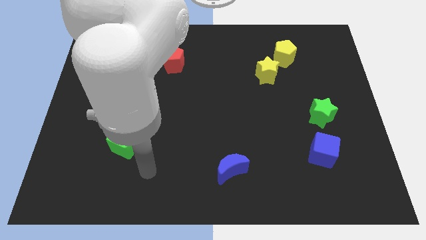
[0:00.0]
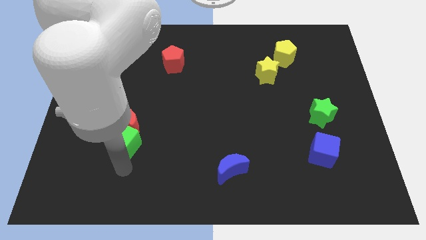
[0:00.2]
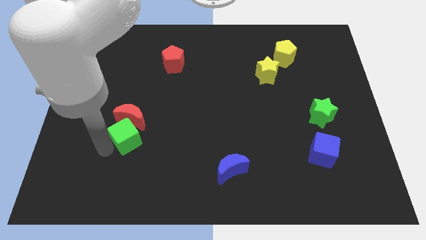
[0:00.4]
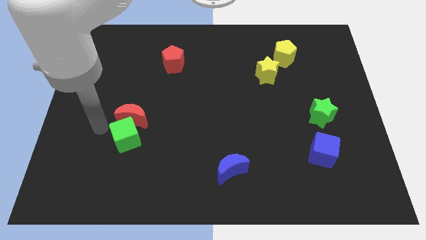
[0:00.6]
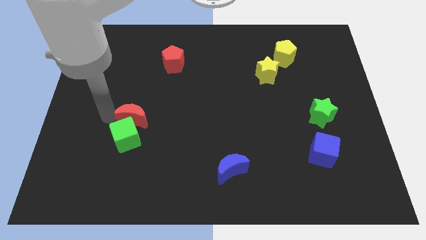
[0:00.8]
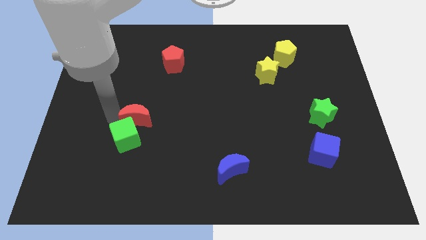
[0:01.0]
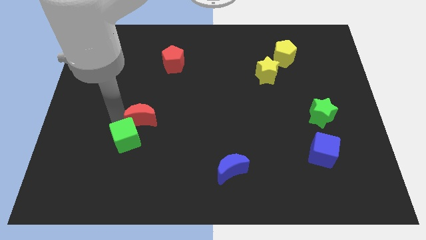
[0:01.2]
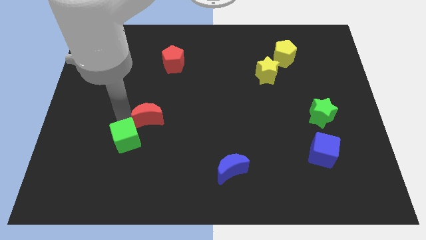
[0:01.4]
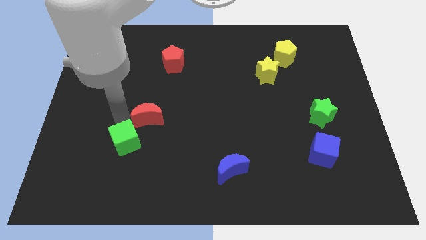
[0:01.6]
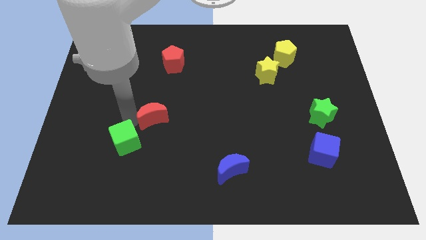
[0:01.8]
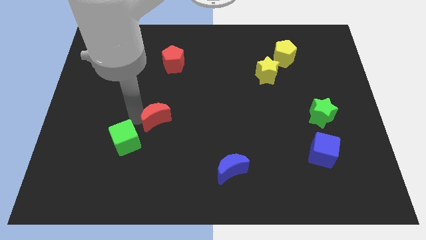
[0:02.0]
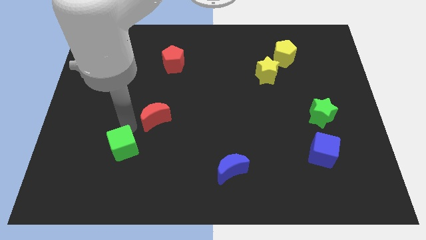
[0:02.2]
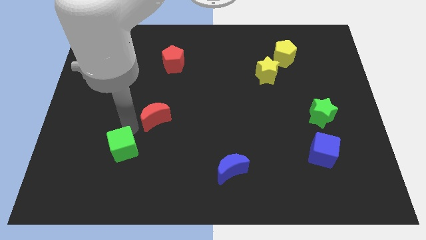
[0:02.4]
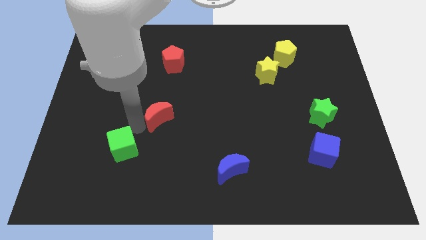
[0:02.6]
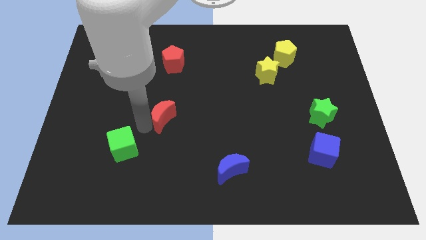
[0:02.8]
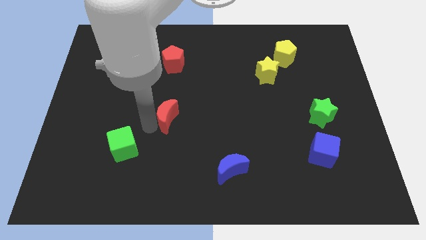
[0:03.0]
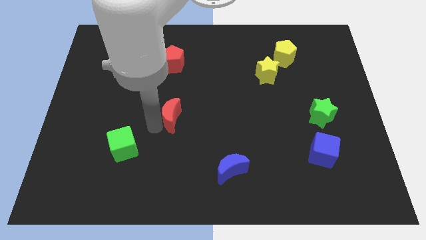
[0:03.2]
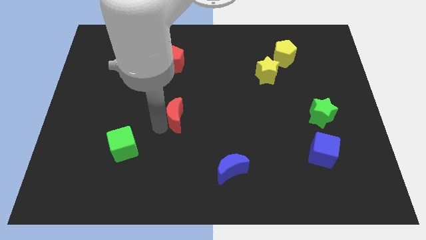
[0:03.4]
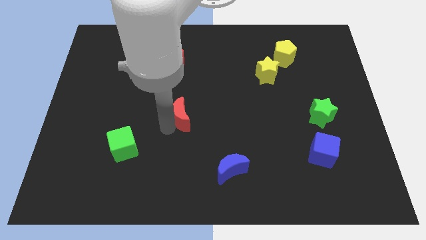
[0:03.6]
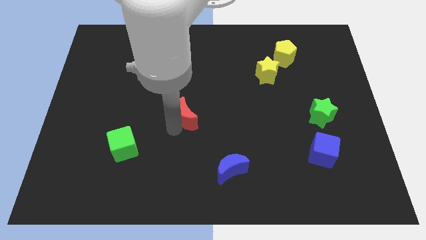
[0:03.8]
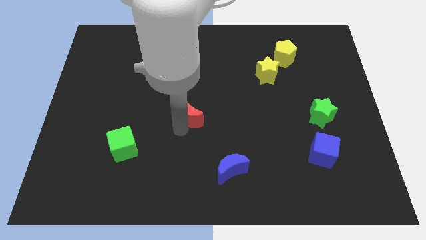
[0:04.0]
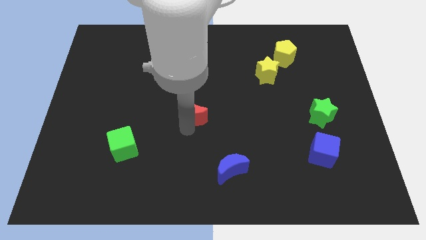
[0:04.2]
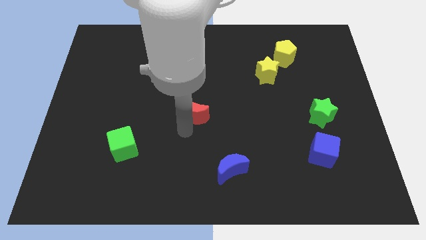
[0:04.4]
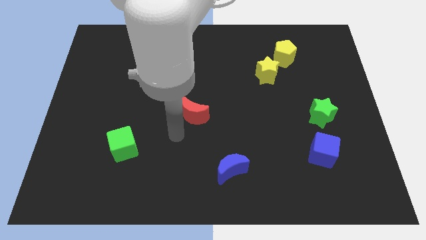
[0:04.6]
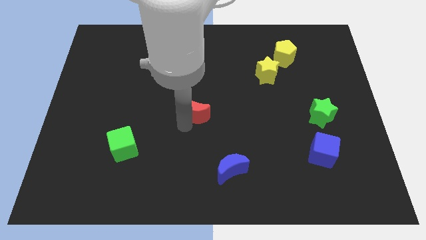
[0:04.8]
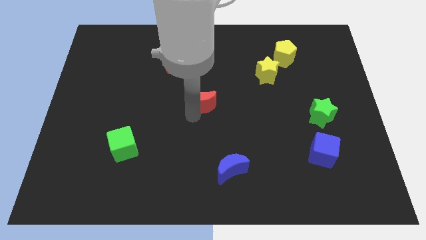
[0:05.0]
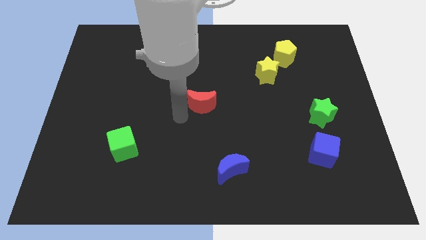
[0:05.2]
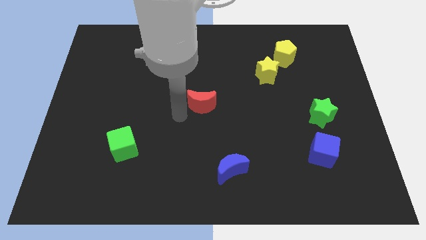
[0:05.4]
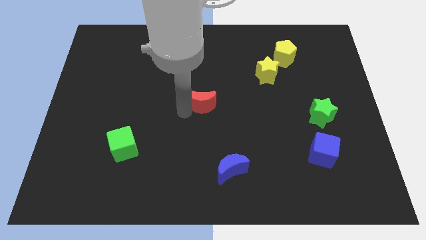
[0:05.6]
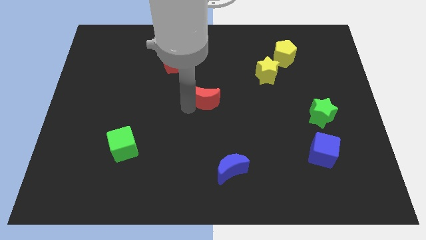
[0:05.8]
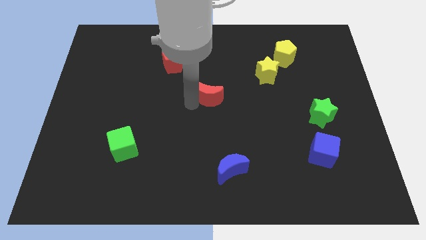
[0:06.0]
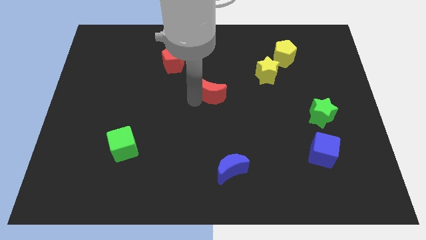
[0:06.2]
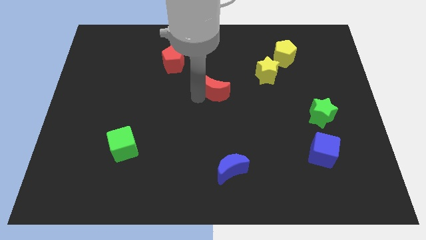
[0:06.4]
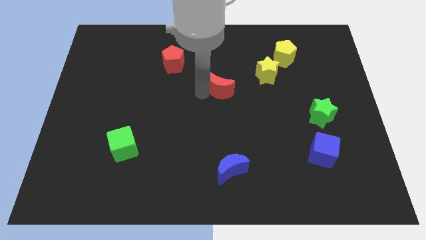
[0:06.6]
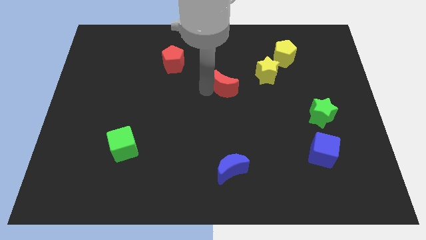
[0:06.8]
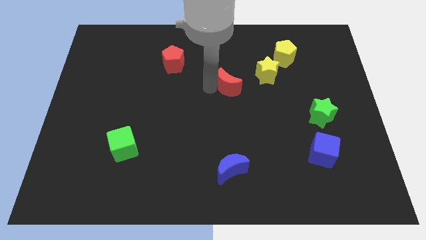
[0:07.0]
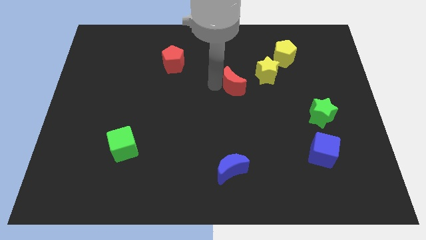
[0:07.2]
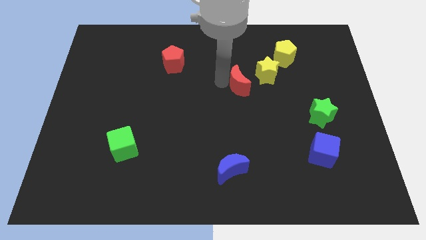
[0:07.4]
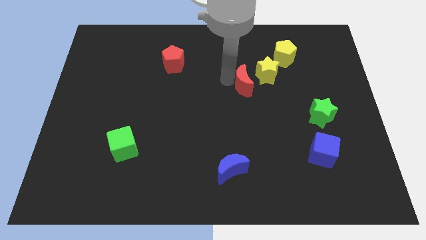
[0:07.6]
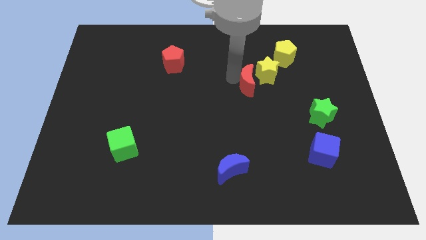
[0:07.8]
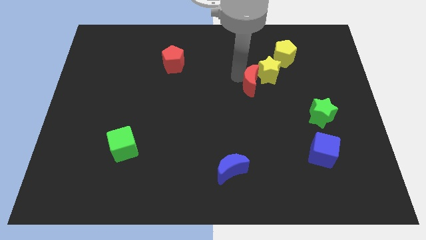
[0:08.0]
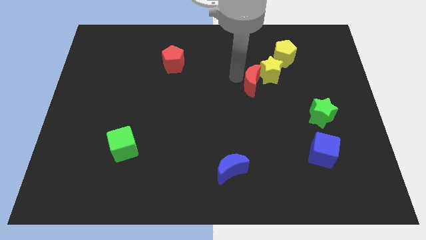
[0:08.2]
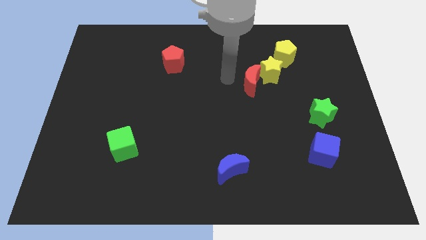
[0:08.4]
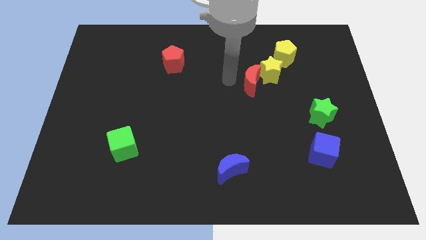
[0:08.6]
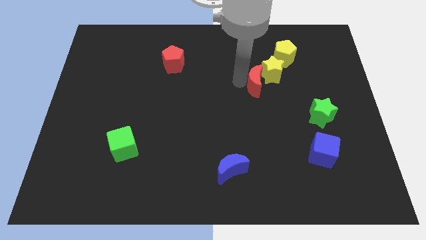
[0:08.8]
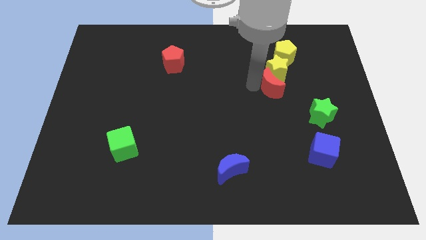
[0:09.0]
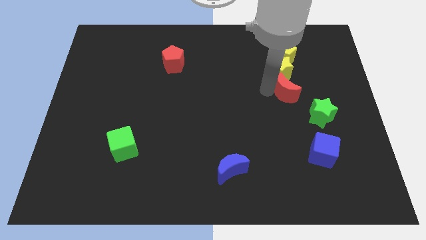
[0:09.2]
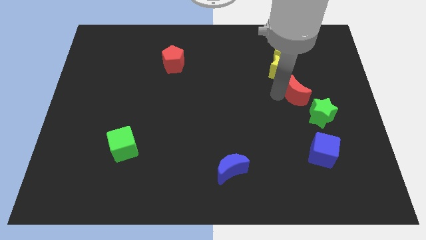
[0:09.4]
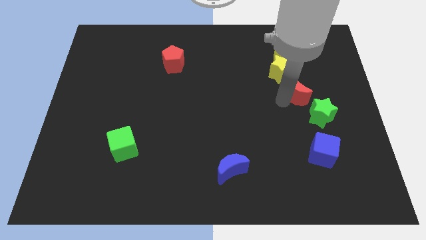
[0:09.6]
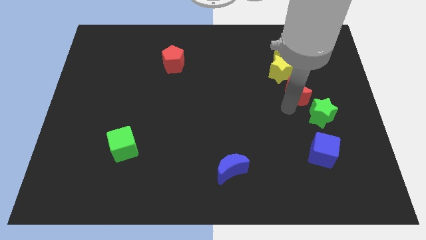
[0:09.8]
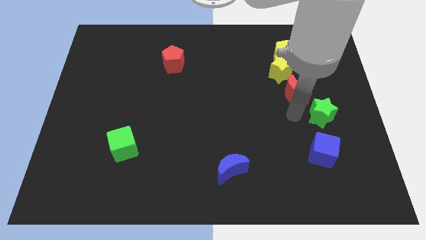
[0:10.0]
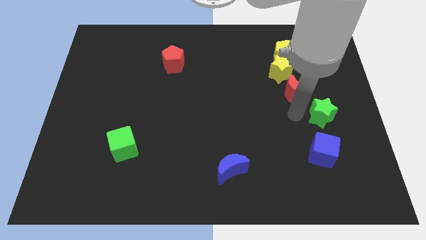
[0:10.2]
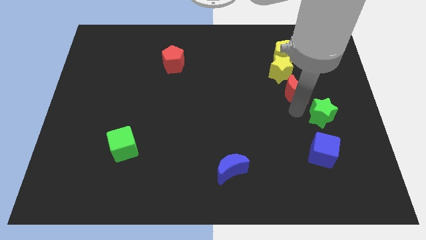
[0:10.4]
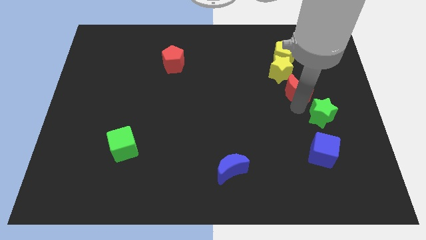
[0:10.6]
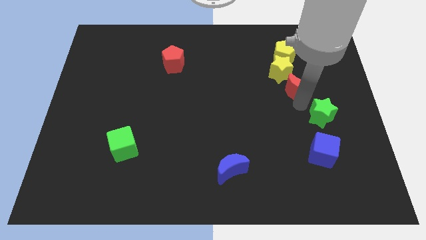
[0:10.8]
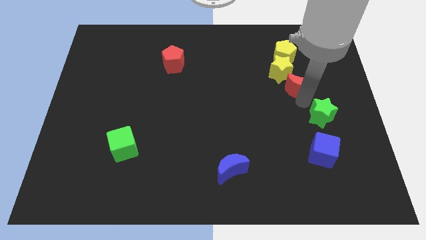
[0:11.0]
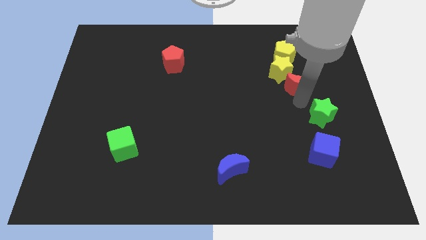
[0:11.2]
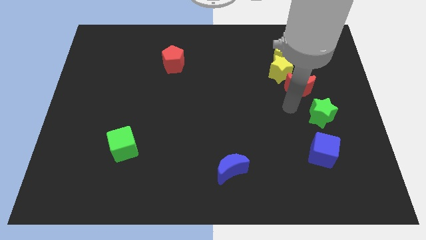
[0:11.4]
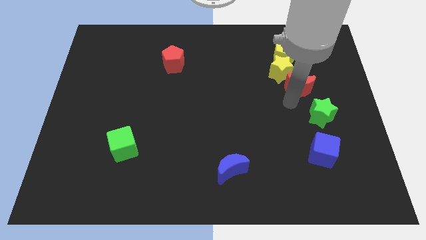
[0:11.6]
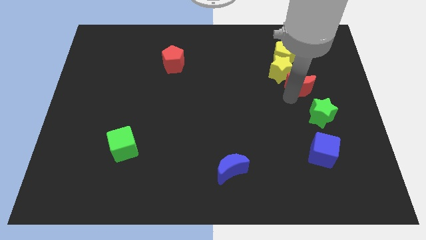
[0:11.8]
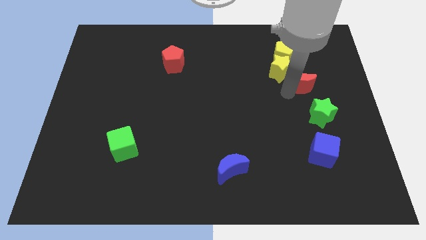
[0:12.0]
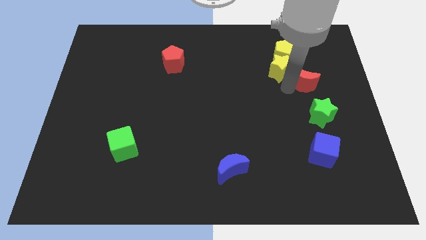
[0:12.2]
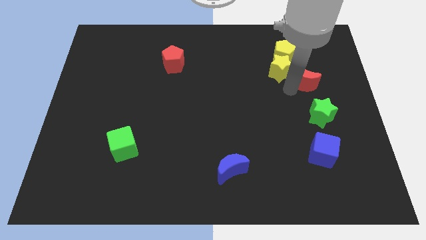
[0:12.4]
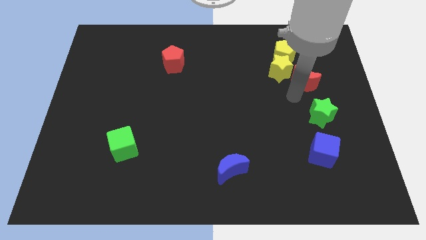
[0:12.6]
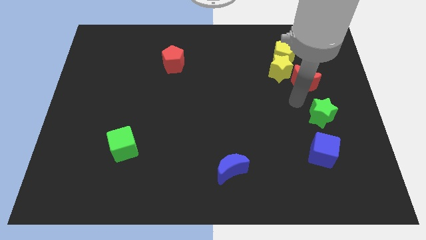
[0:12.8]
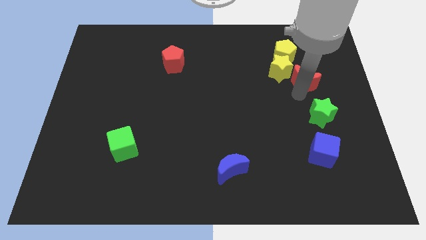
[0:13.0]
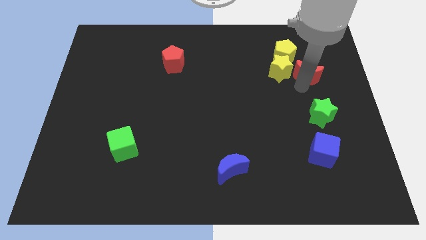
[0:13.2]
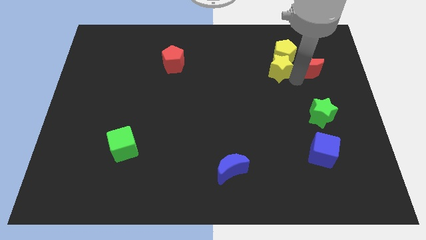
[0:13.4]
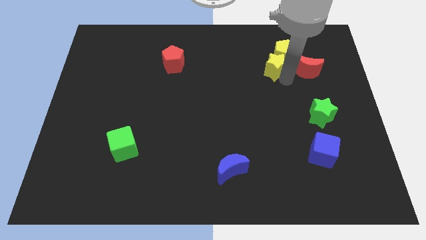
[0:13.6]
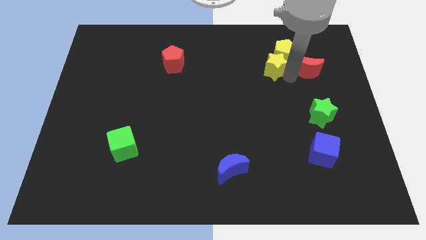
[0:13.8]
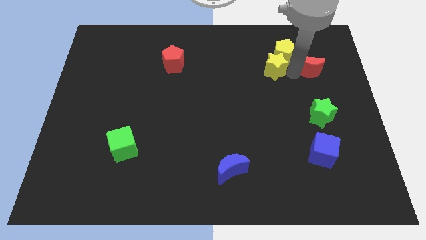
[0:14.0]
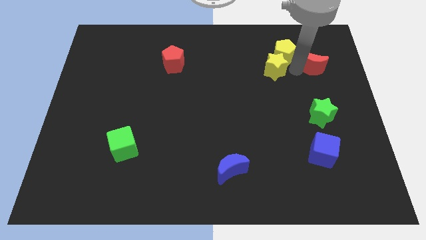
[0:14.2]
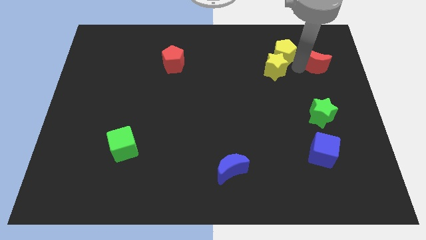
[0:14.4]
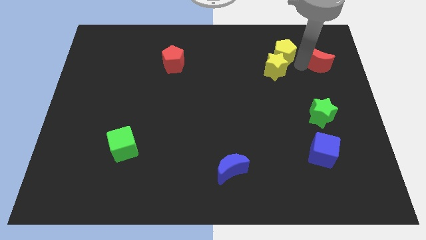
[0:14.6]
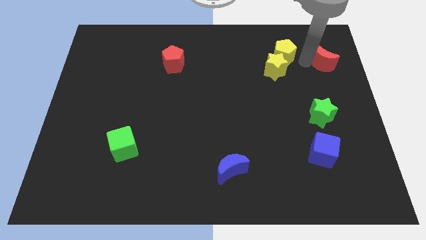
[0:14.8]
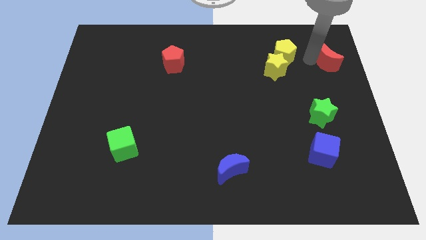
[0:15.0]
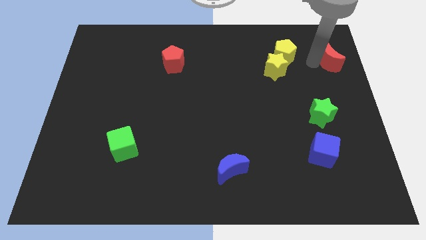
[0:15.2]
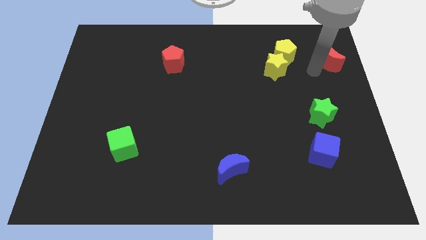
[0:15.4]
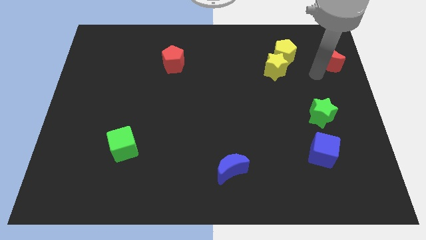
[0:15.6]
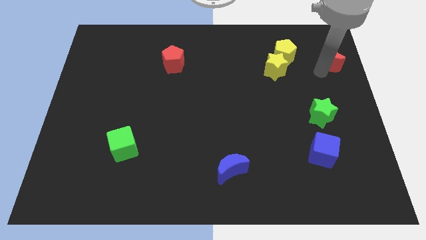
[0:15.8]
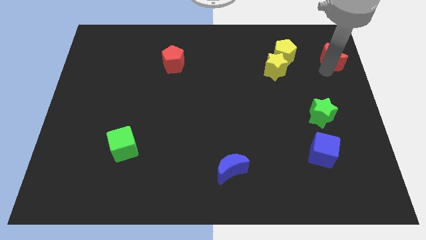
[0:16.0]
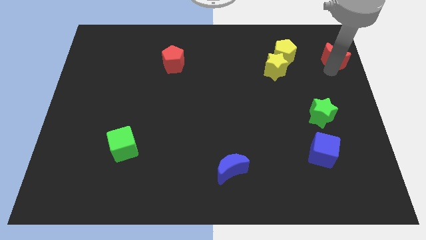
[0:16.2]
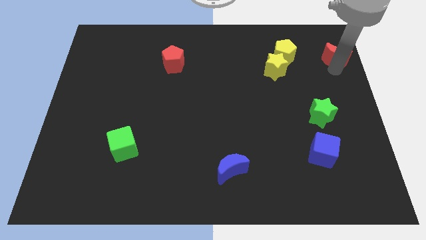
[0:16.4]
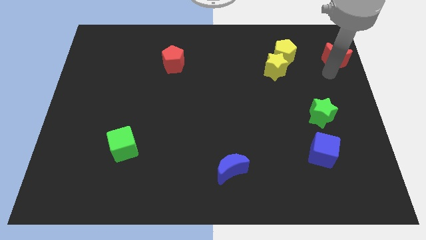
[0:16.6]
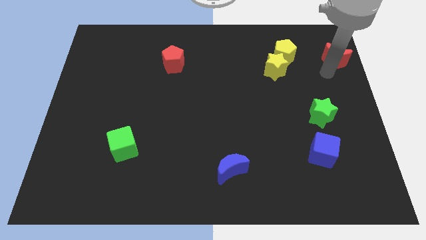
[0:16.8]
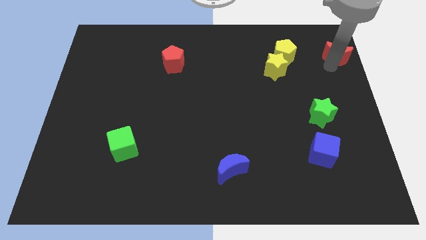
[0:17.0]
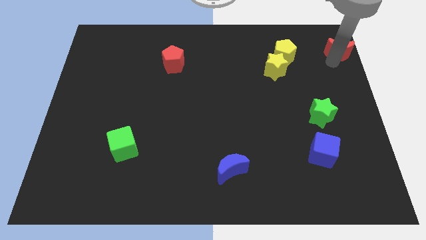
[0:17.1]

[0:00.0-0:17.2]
move the red moon to the top right of the board
